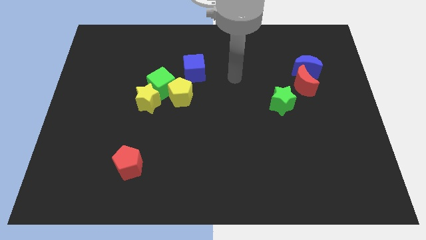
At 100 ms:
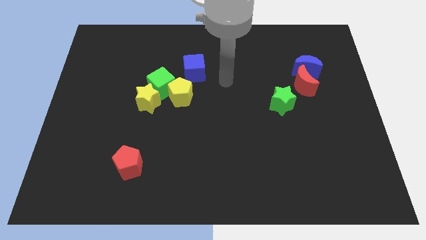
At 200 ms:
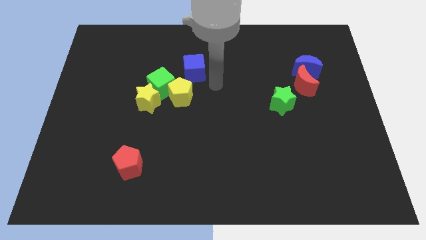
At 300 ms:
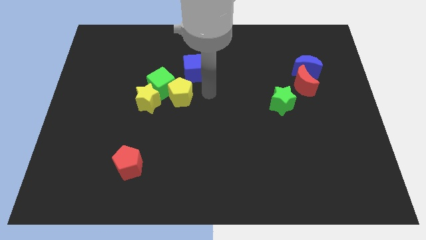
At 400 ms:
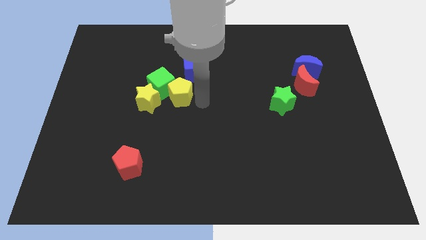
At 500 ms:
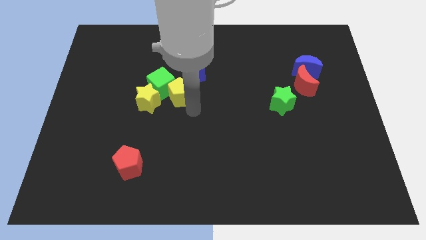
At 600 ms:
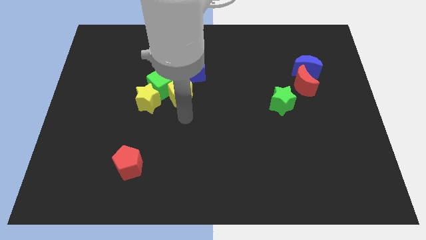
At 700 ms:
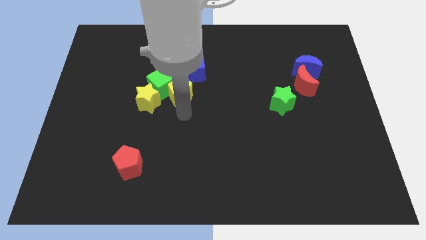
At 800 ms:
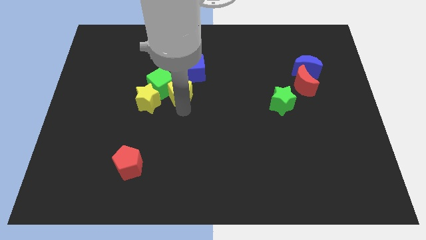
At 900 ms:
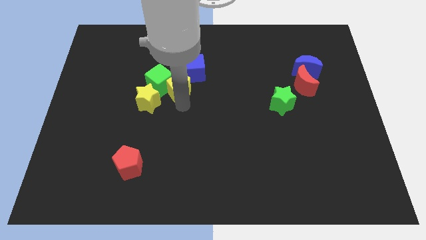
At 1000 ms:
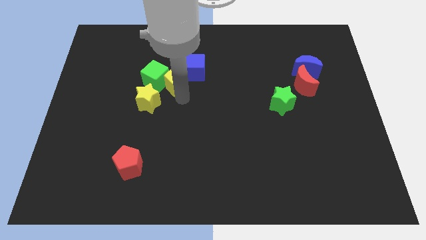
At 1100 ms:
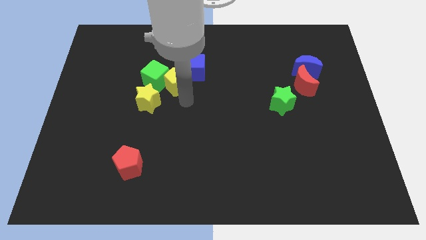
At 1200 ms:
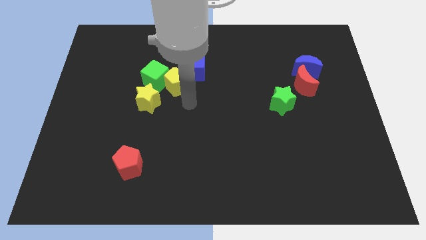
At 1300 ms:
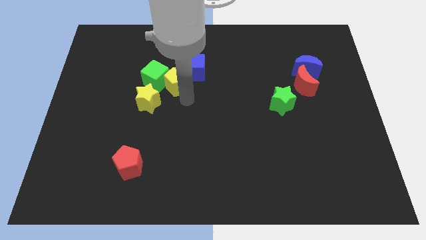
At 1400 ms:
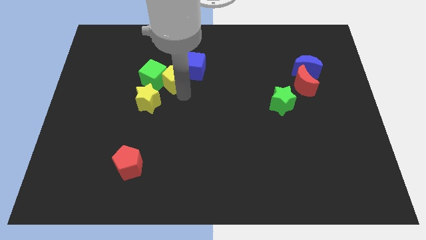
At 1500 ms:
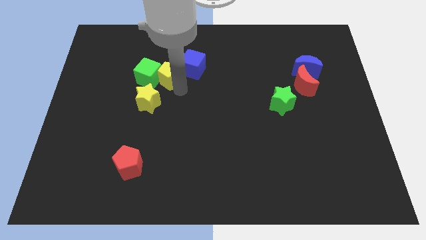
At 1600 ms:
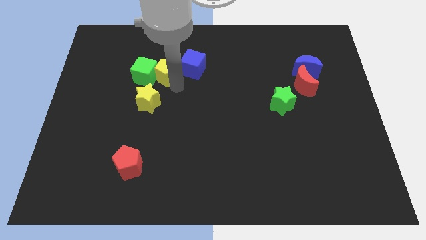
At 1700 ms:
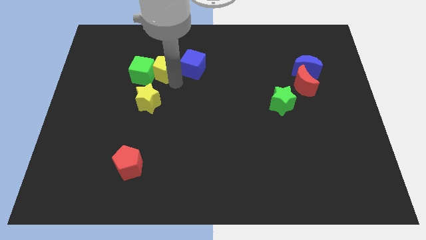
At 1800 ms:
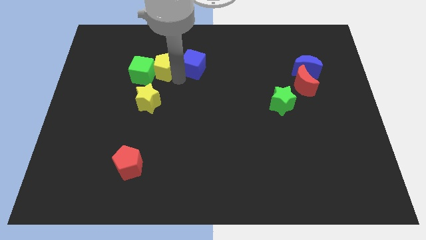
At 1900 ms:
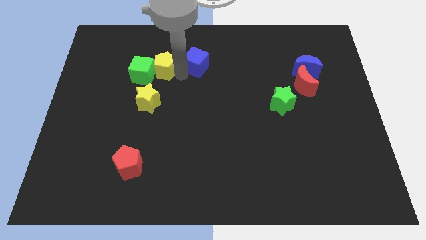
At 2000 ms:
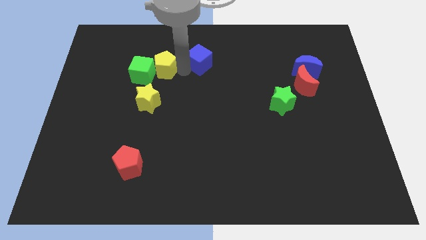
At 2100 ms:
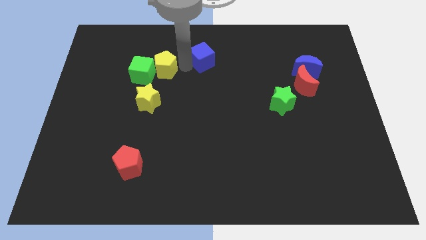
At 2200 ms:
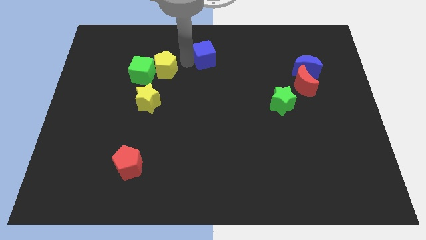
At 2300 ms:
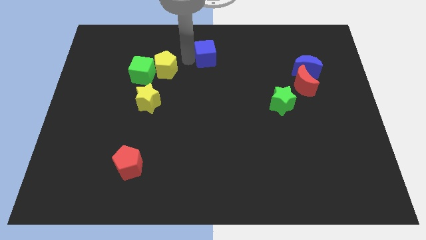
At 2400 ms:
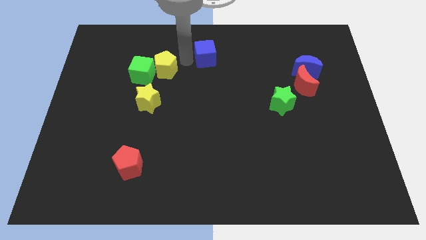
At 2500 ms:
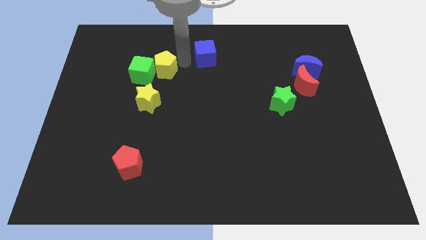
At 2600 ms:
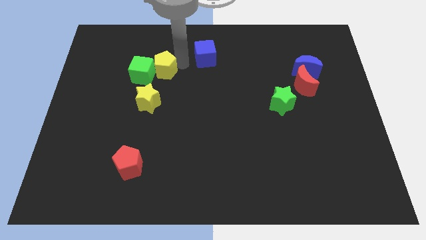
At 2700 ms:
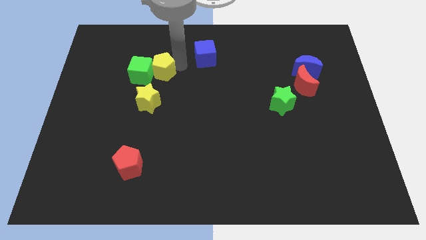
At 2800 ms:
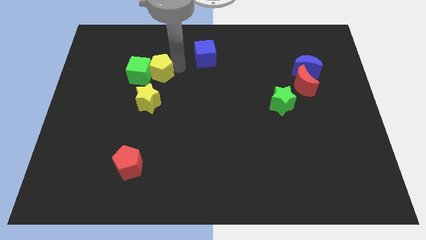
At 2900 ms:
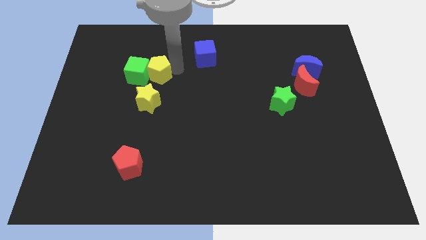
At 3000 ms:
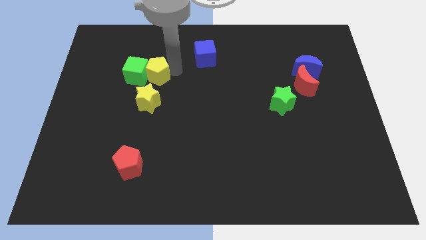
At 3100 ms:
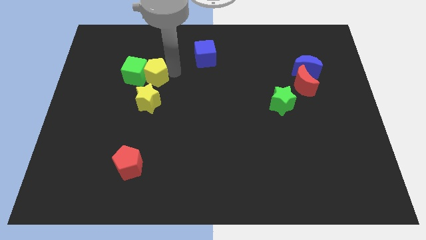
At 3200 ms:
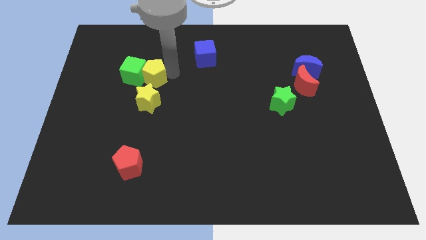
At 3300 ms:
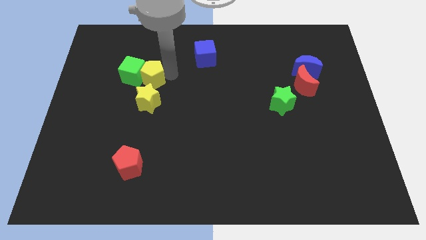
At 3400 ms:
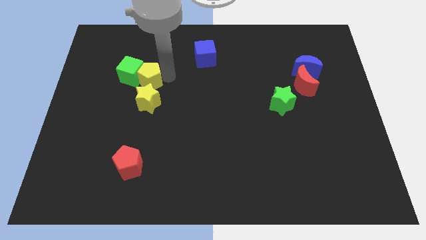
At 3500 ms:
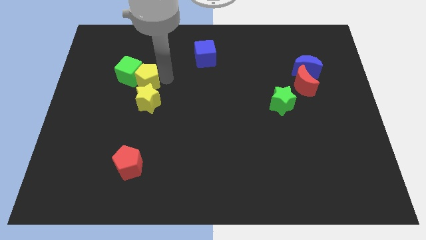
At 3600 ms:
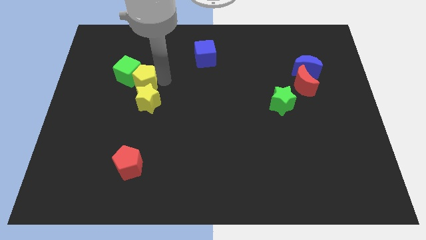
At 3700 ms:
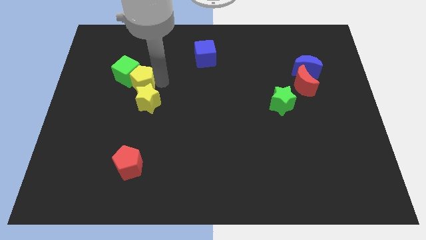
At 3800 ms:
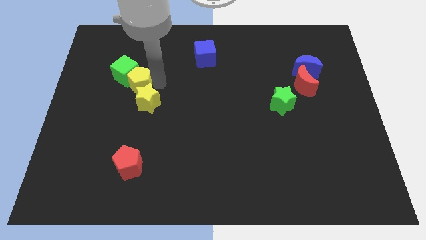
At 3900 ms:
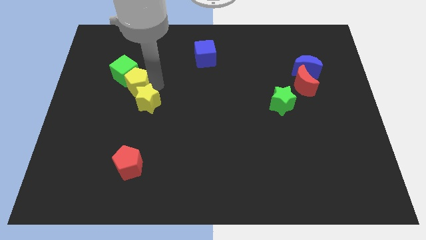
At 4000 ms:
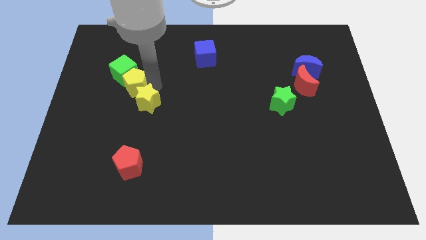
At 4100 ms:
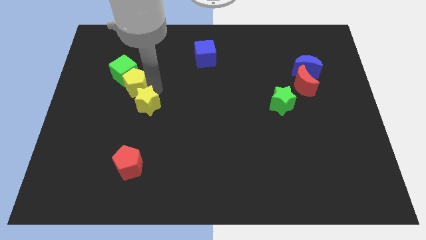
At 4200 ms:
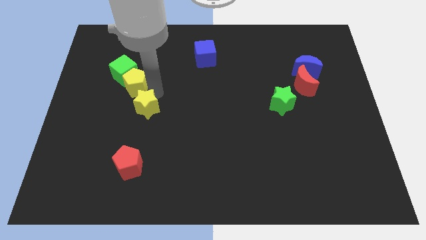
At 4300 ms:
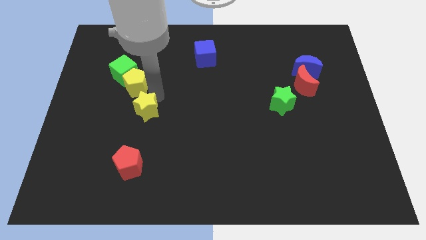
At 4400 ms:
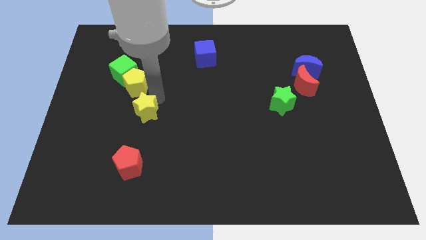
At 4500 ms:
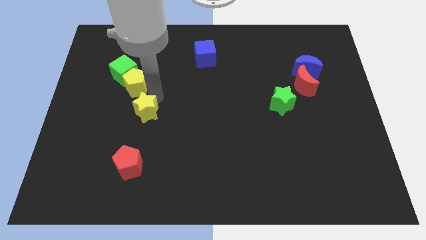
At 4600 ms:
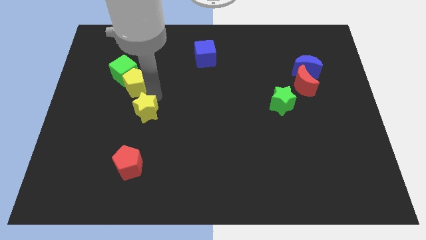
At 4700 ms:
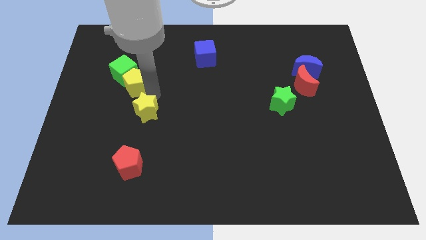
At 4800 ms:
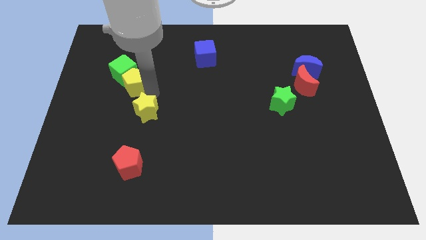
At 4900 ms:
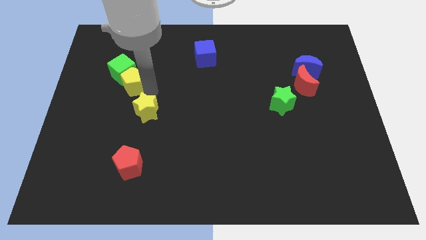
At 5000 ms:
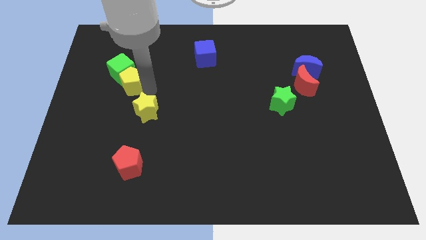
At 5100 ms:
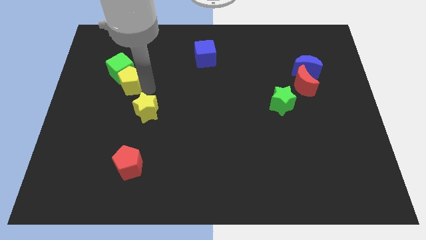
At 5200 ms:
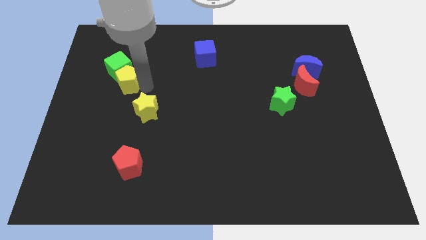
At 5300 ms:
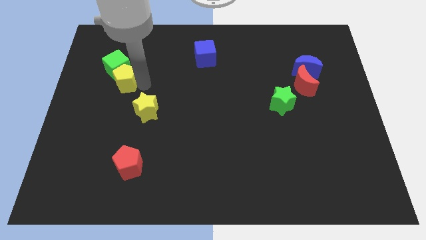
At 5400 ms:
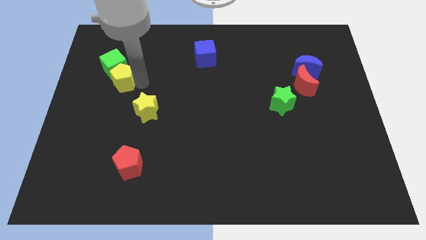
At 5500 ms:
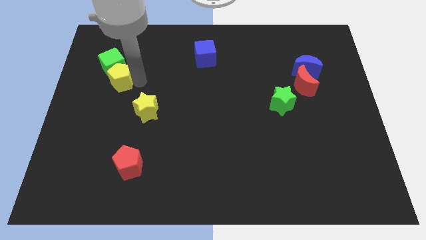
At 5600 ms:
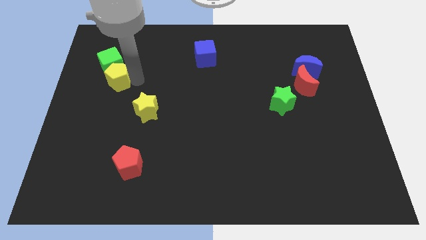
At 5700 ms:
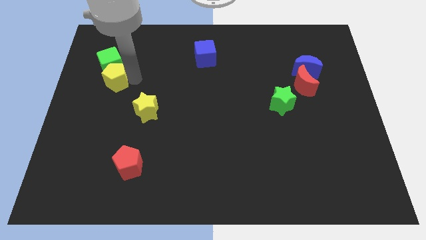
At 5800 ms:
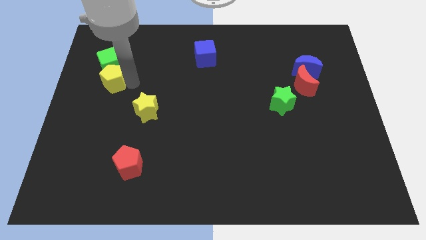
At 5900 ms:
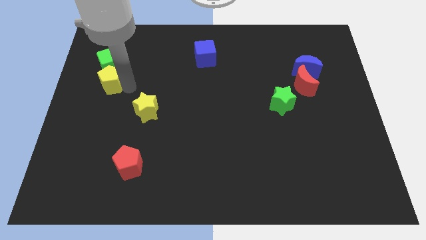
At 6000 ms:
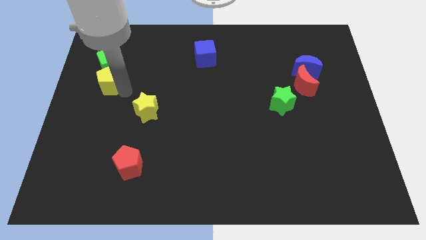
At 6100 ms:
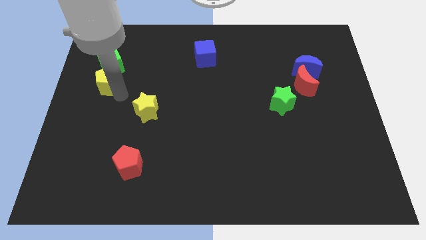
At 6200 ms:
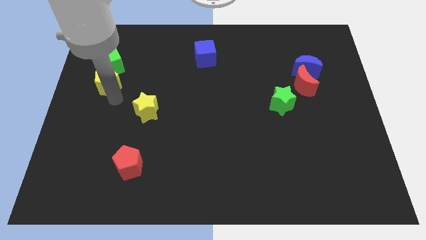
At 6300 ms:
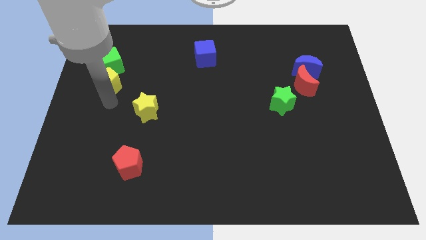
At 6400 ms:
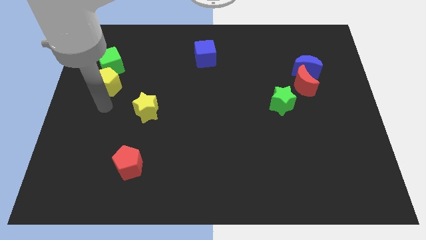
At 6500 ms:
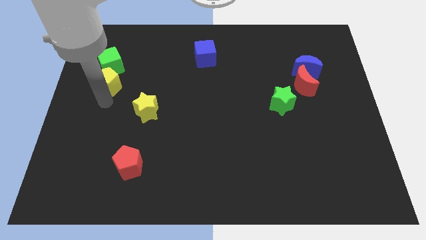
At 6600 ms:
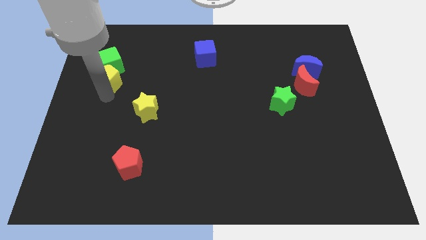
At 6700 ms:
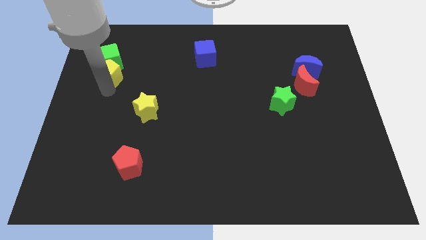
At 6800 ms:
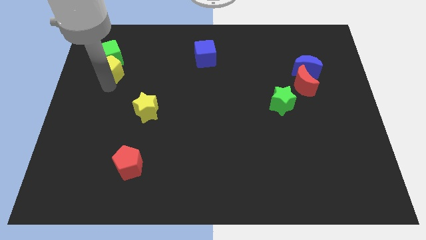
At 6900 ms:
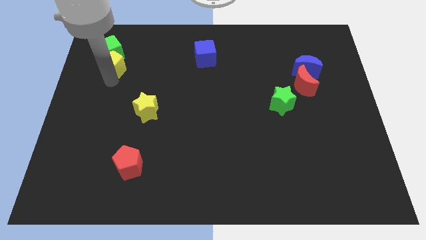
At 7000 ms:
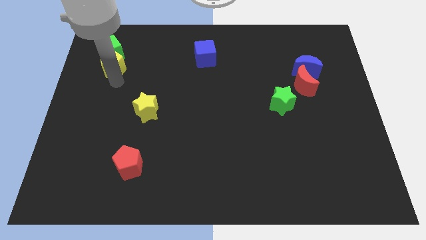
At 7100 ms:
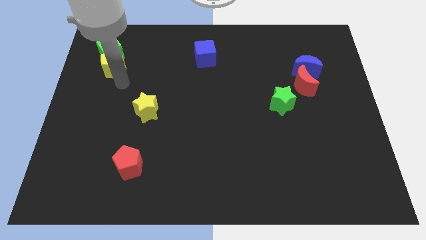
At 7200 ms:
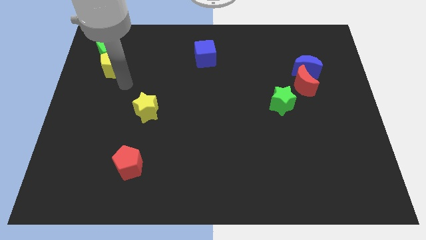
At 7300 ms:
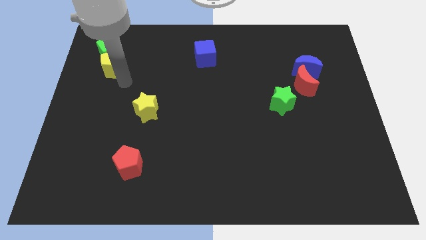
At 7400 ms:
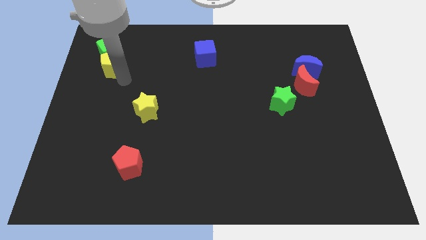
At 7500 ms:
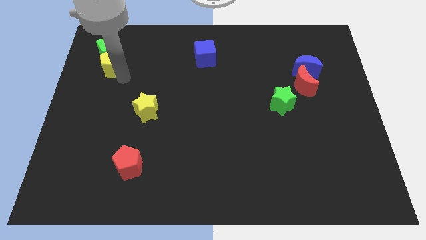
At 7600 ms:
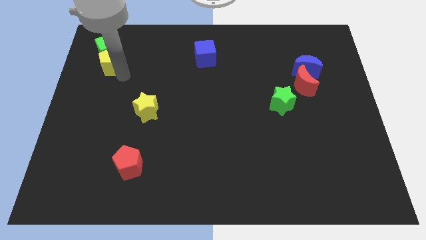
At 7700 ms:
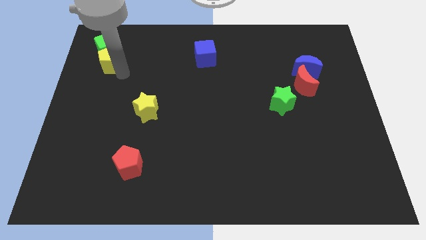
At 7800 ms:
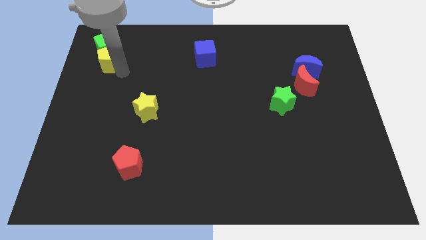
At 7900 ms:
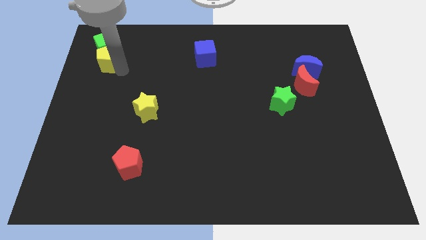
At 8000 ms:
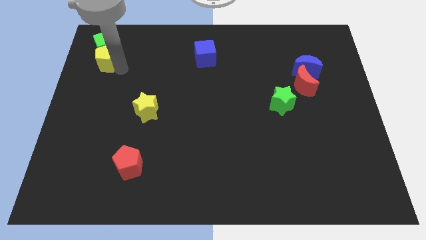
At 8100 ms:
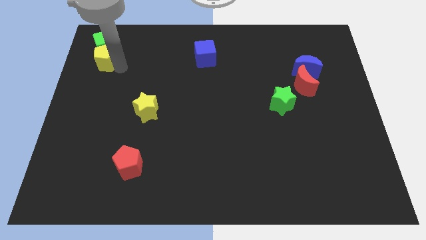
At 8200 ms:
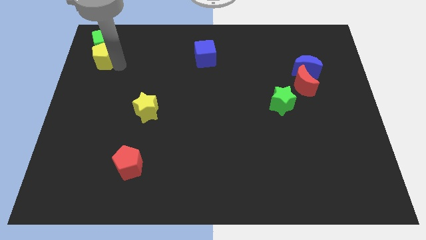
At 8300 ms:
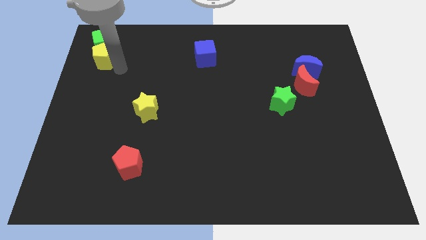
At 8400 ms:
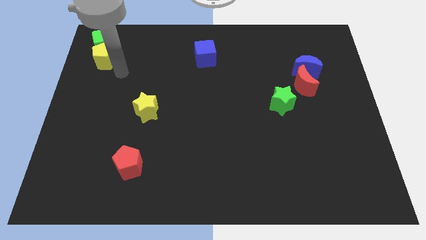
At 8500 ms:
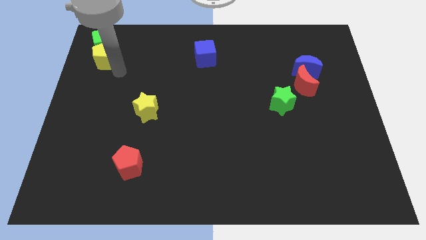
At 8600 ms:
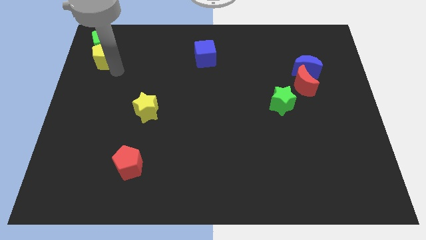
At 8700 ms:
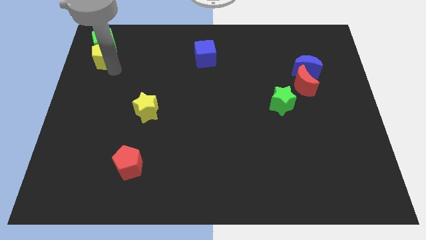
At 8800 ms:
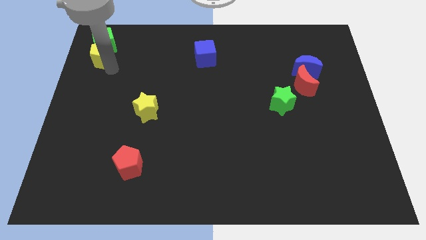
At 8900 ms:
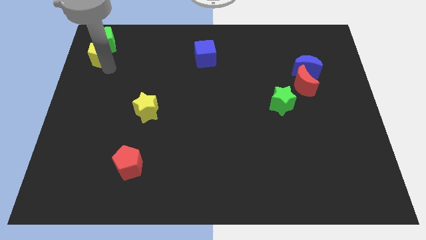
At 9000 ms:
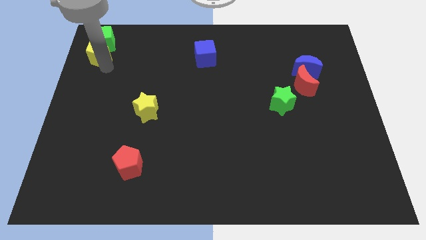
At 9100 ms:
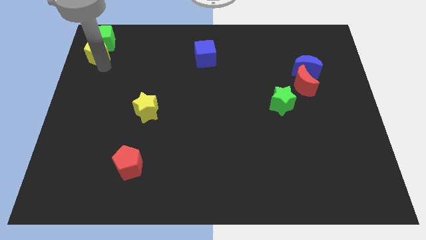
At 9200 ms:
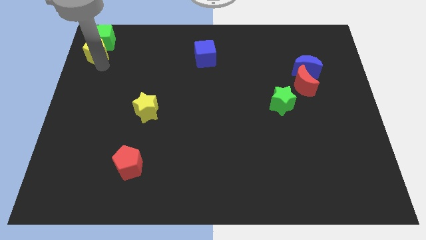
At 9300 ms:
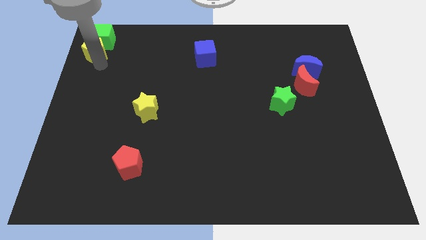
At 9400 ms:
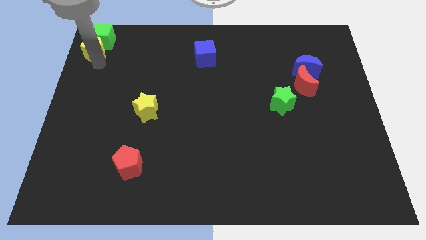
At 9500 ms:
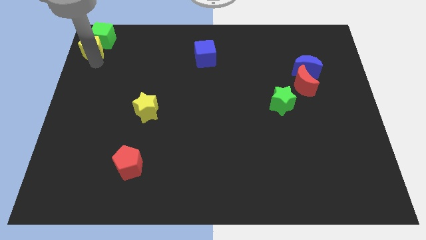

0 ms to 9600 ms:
push the yellow pentagon to the upper left corner
